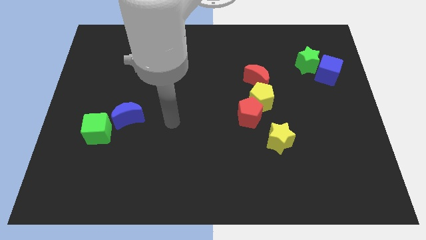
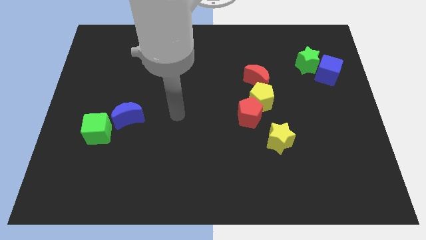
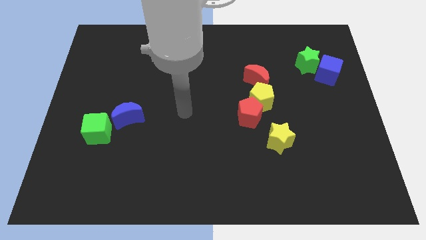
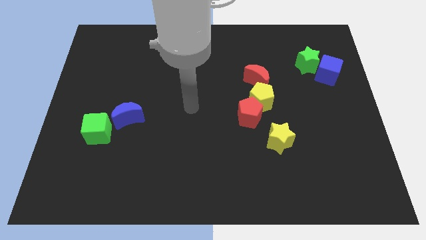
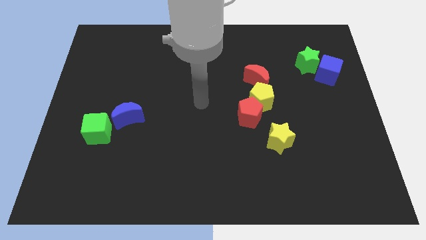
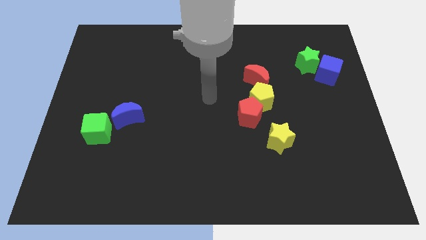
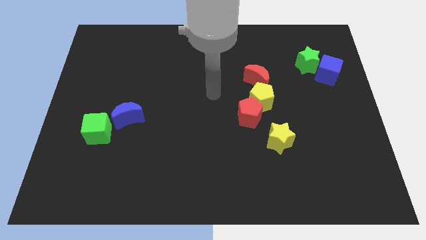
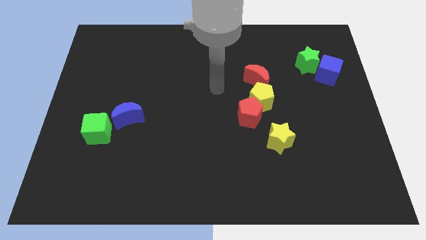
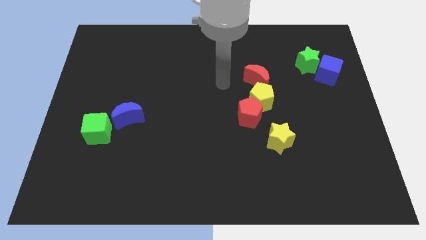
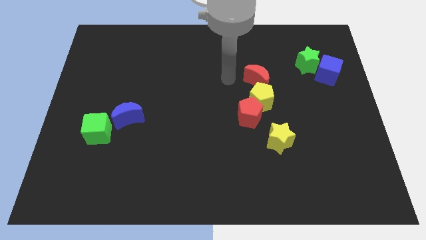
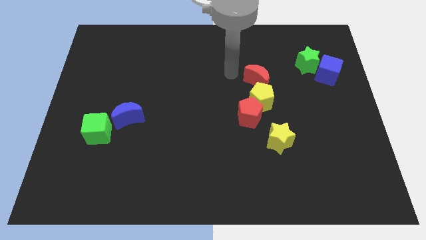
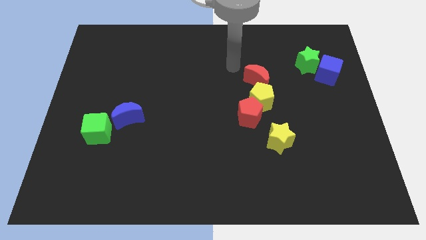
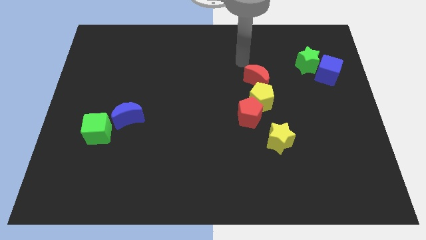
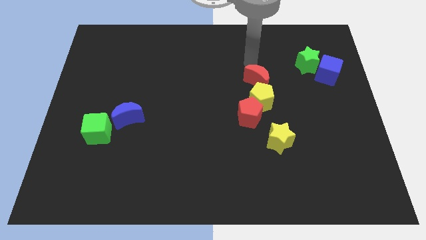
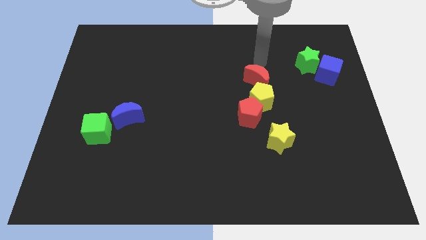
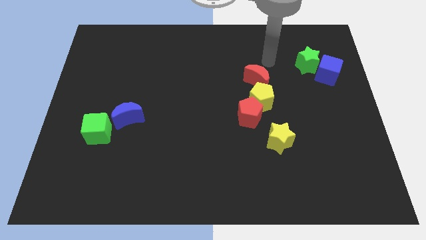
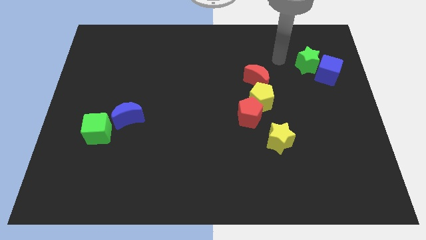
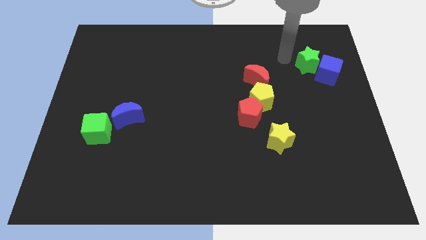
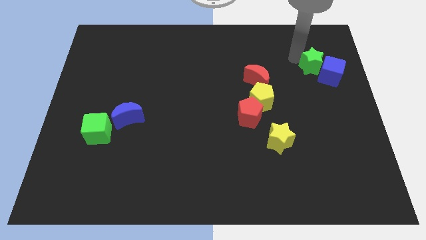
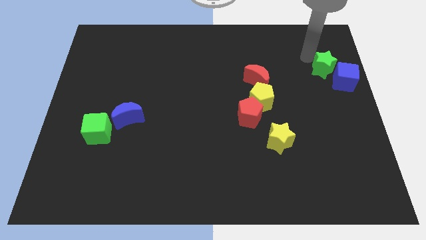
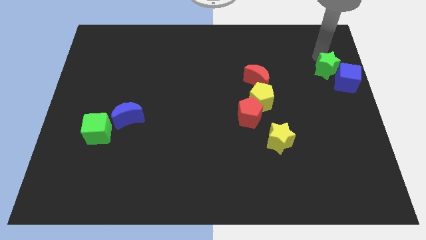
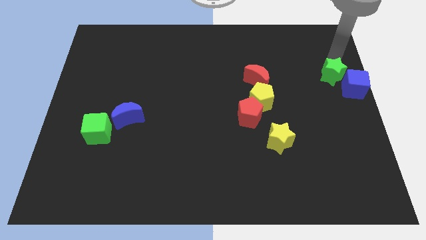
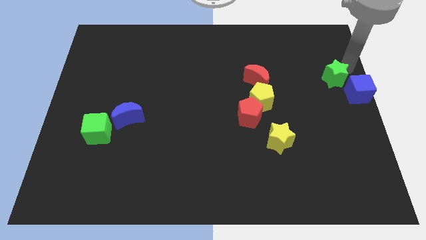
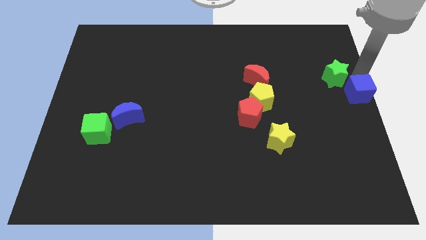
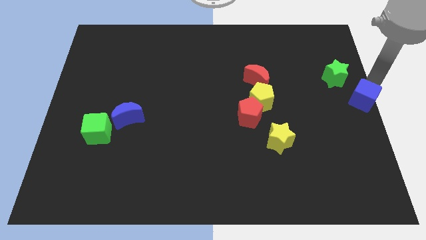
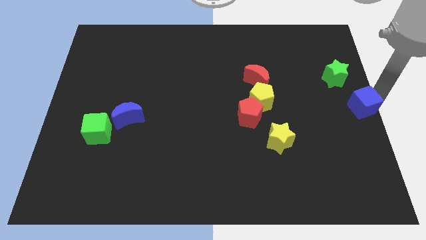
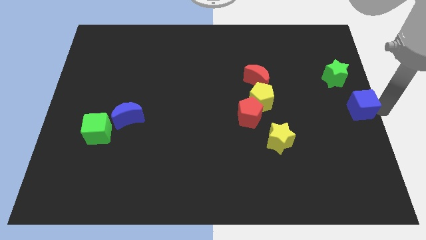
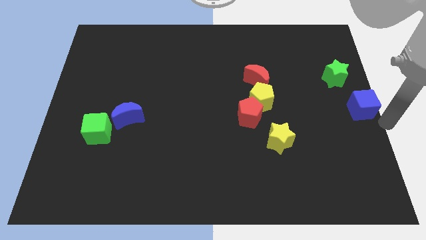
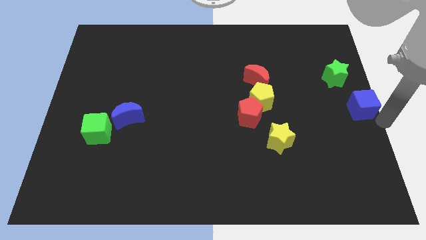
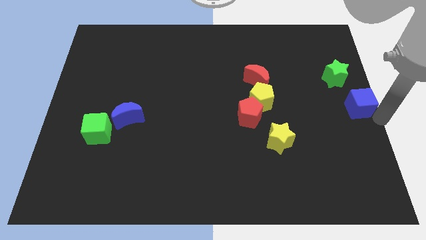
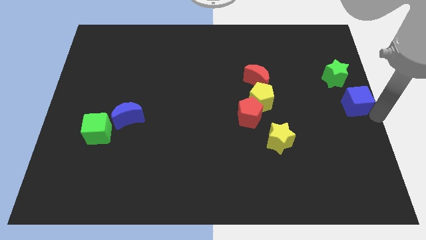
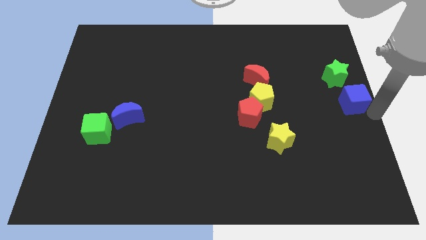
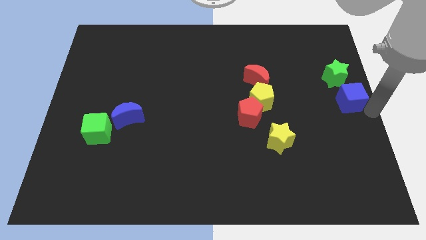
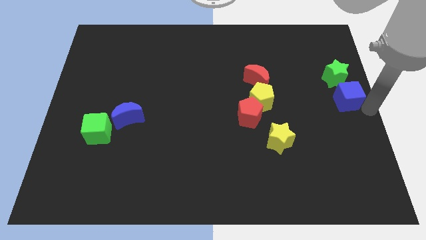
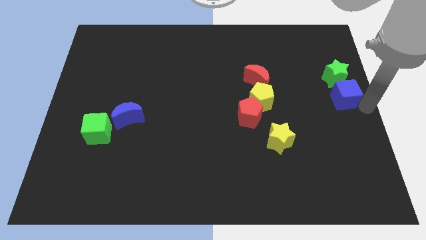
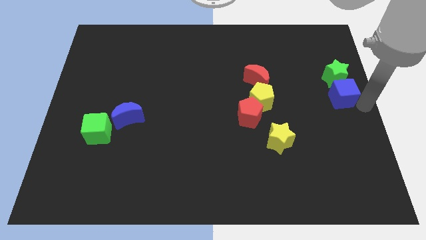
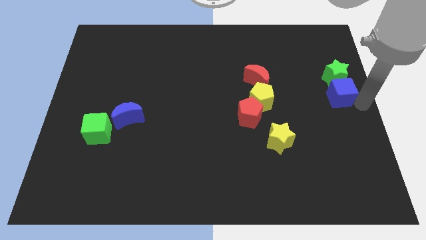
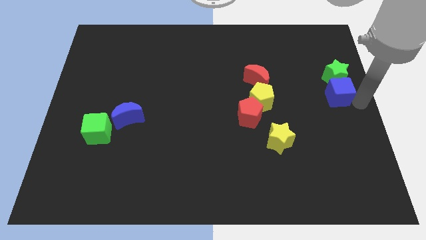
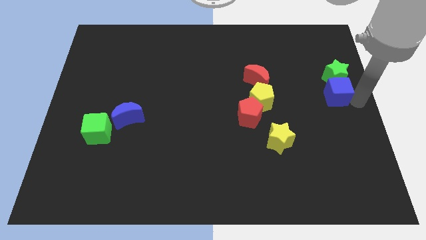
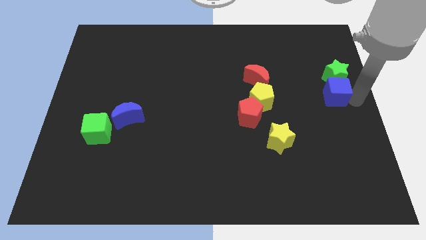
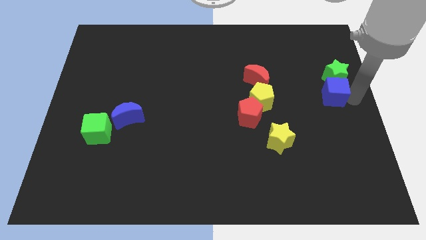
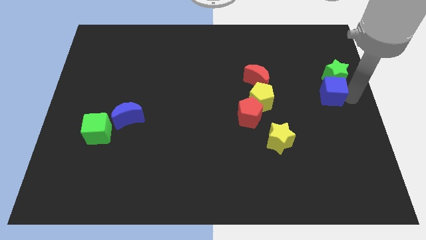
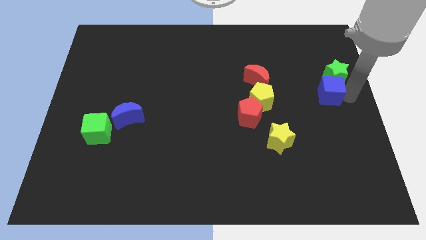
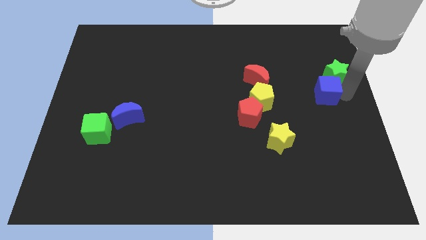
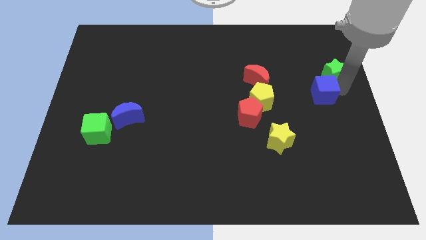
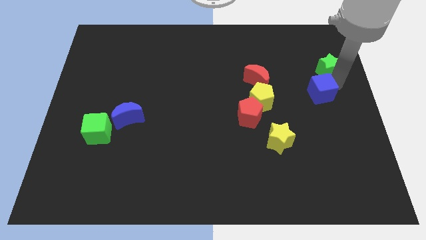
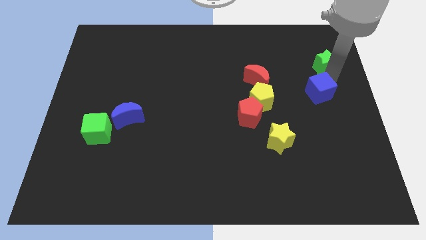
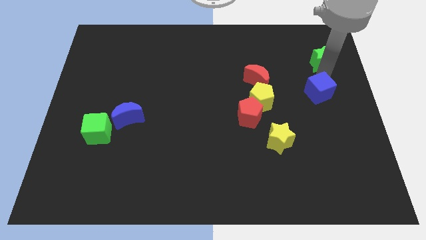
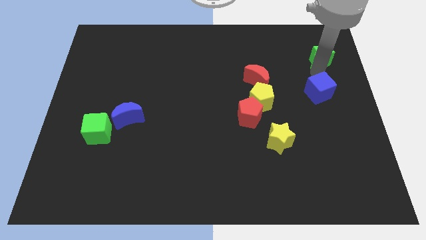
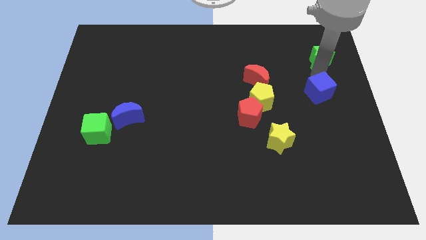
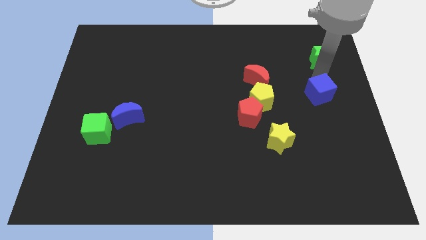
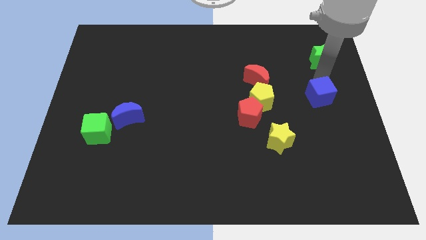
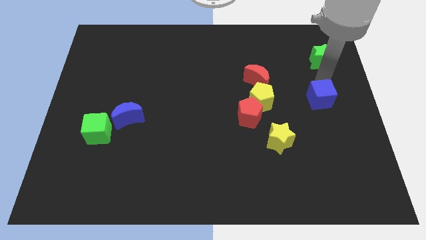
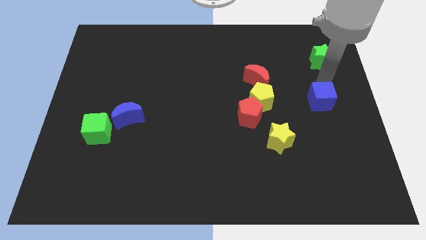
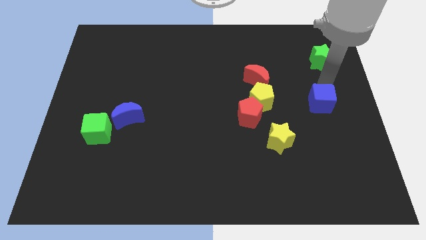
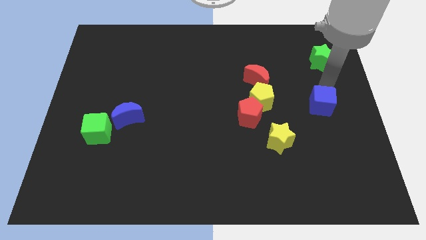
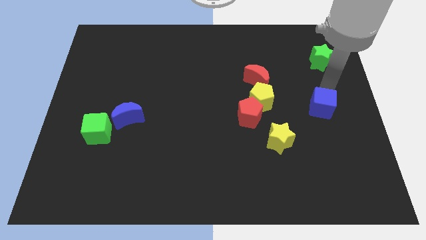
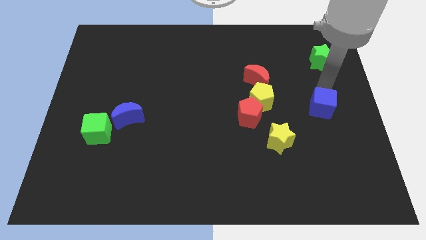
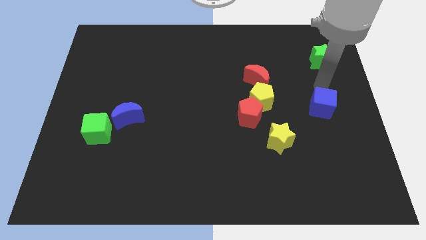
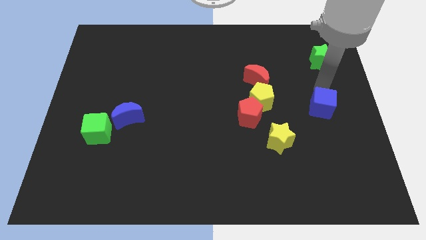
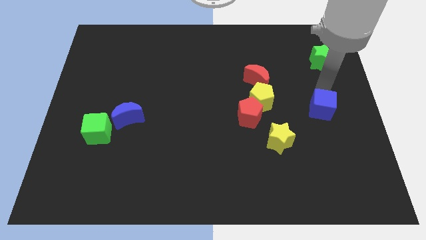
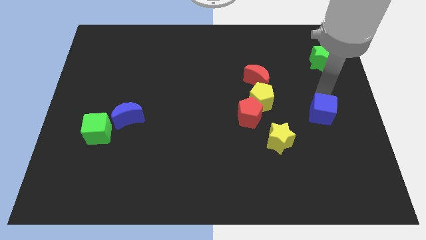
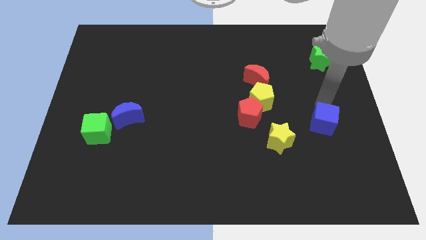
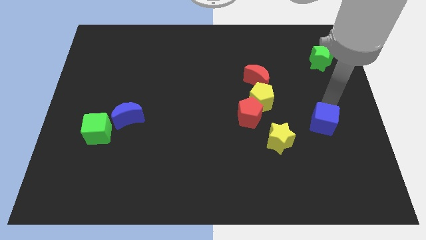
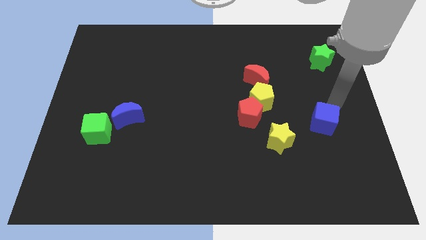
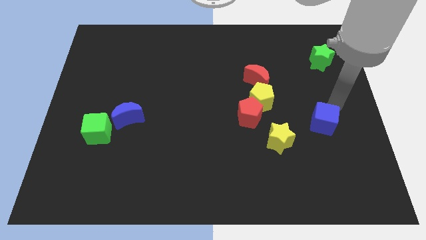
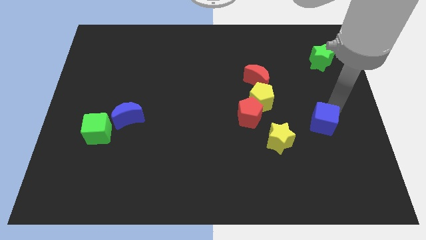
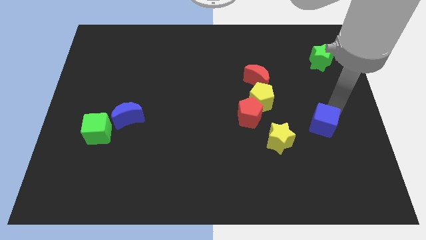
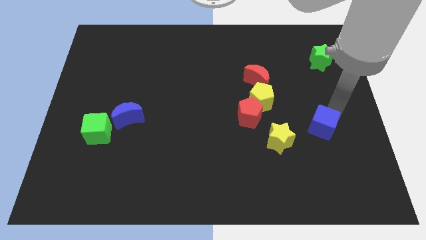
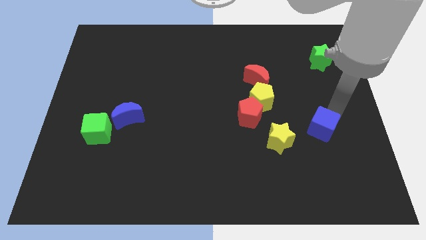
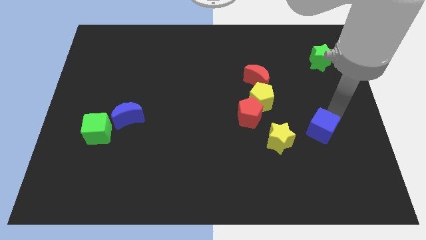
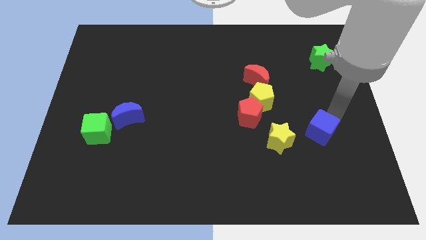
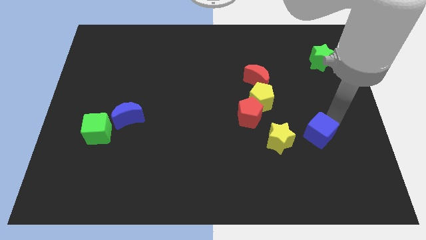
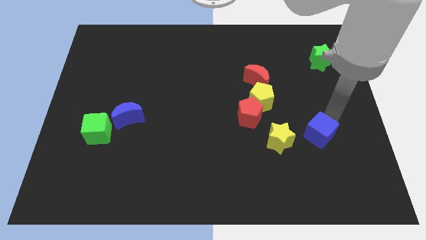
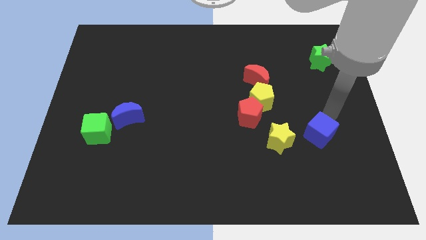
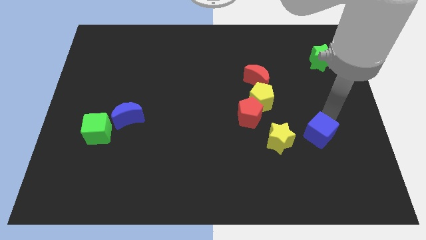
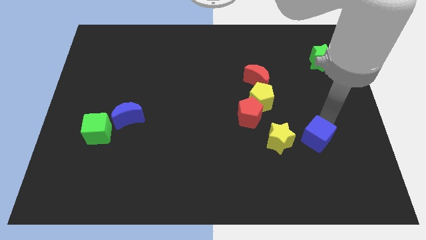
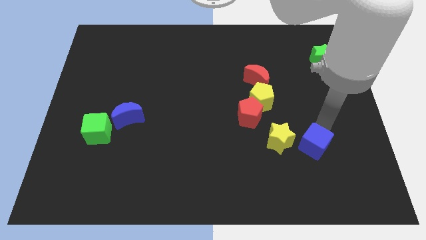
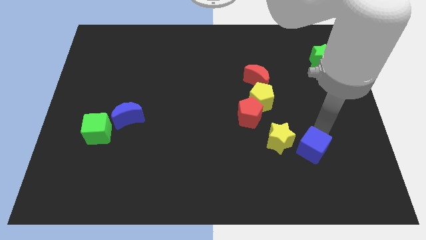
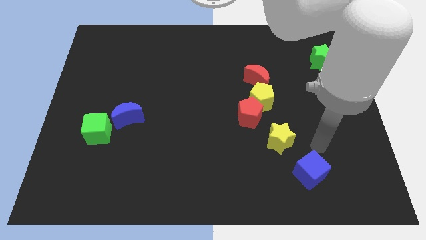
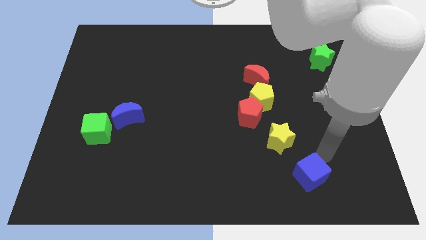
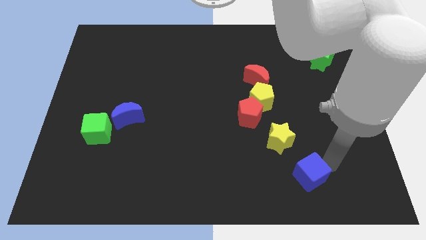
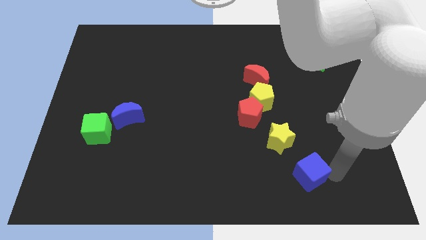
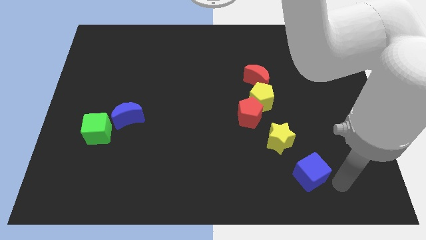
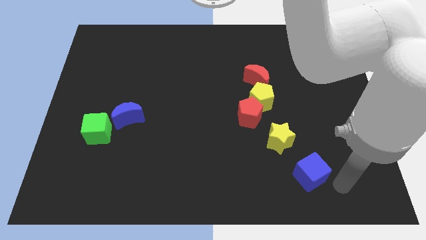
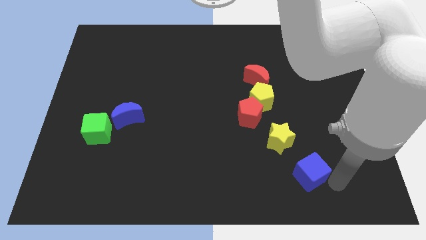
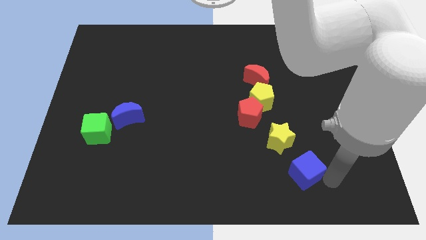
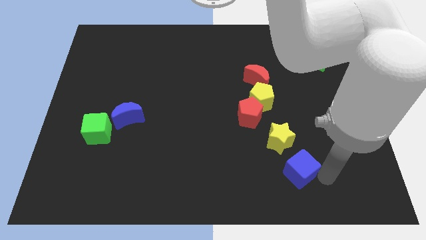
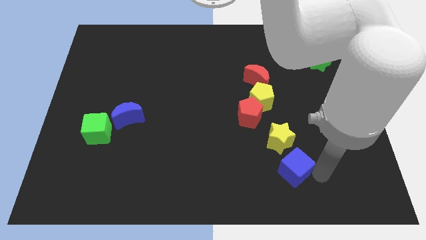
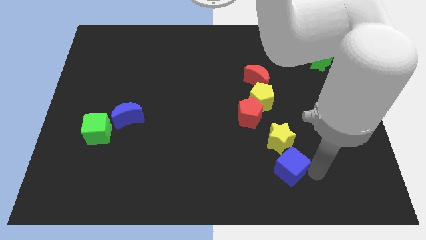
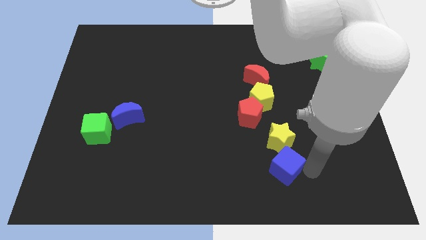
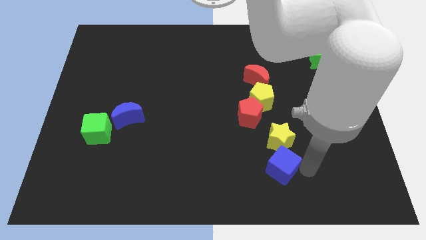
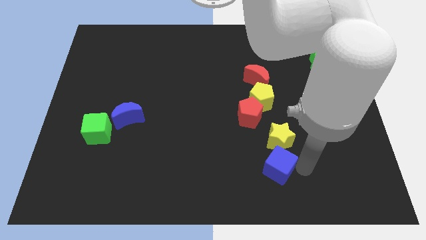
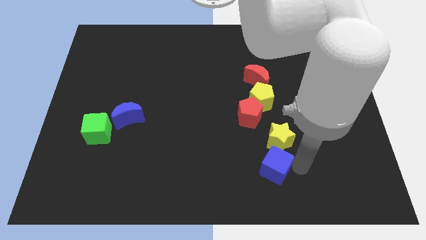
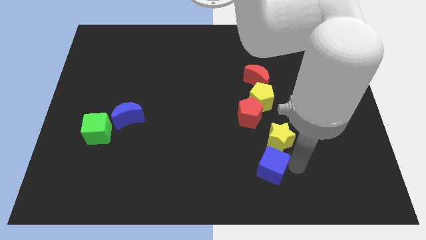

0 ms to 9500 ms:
push the blue cube to the bottom of the red pentagon
